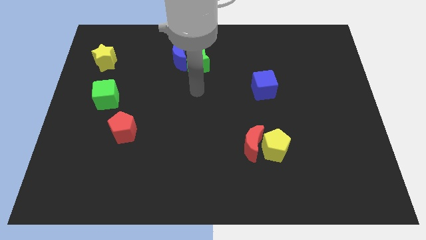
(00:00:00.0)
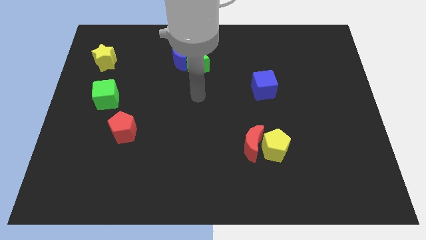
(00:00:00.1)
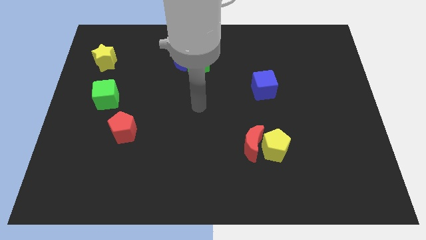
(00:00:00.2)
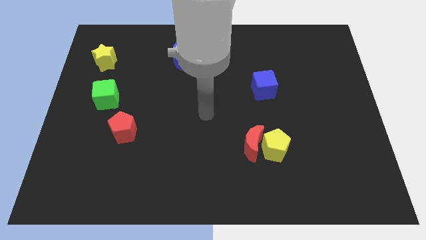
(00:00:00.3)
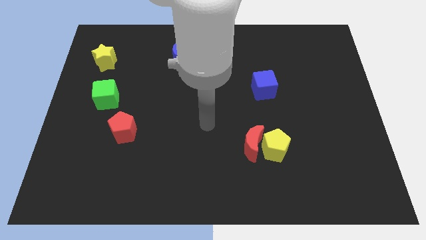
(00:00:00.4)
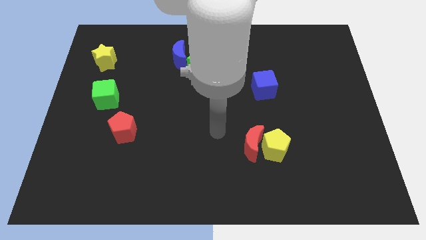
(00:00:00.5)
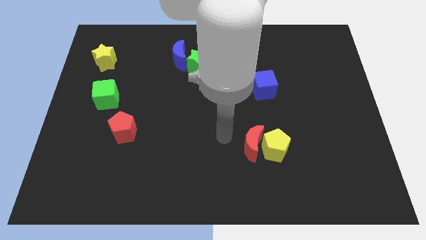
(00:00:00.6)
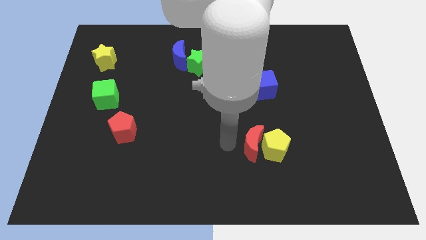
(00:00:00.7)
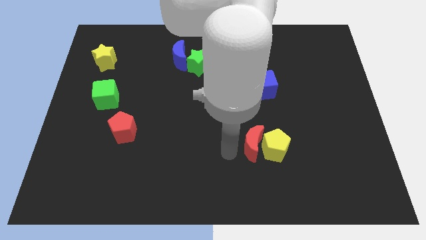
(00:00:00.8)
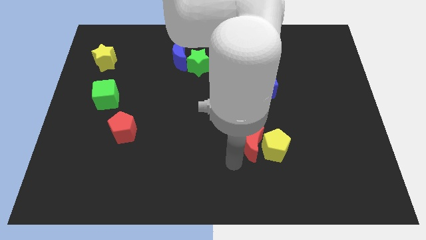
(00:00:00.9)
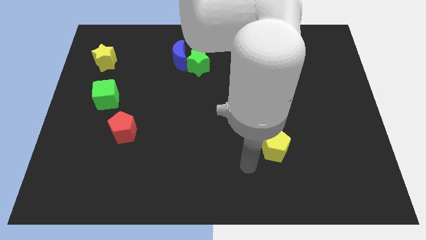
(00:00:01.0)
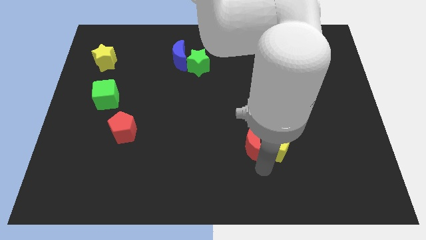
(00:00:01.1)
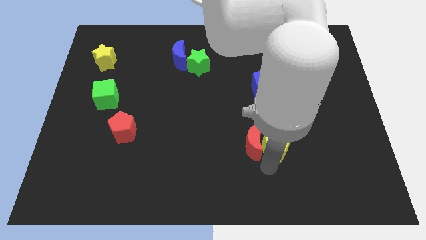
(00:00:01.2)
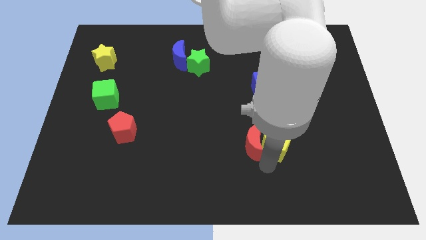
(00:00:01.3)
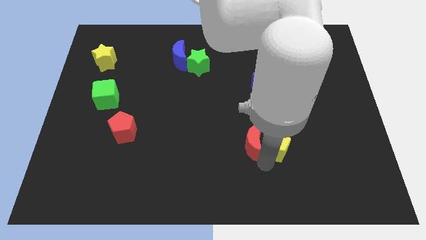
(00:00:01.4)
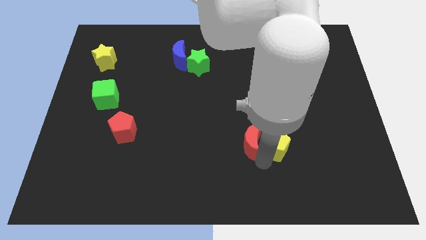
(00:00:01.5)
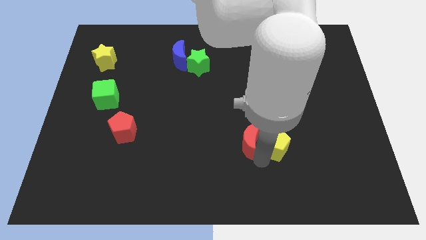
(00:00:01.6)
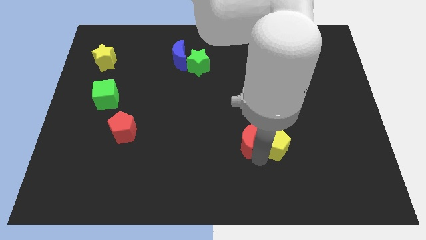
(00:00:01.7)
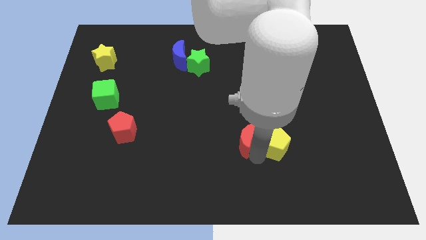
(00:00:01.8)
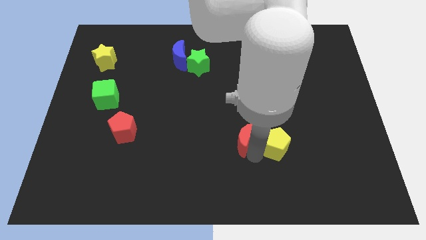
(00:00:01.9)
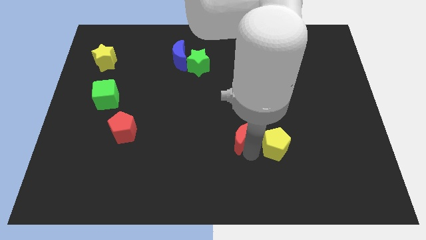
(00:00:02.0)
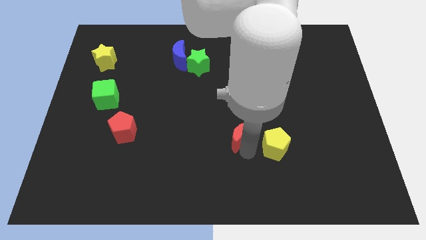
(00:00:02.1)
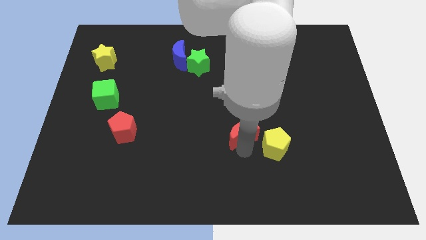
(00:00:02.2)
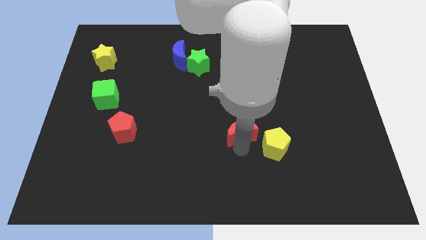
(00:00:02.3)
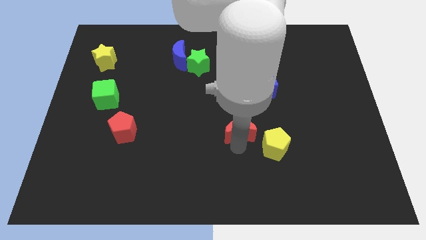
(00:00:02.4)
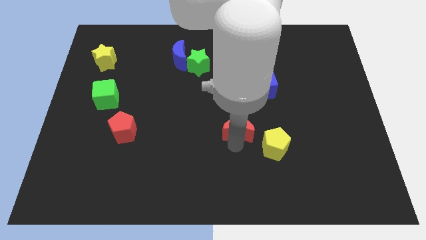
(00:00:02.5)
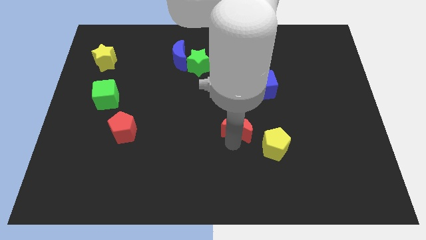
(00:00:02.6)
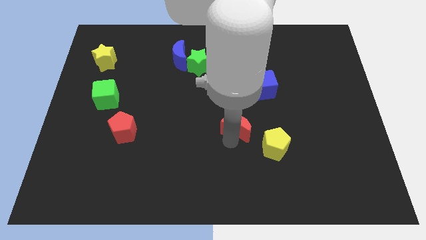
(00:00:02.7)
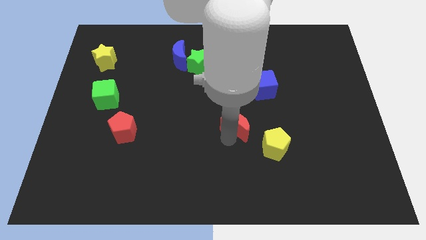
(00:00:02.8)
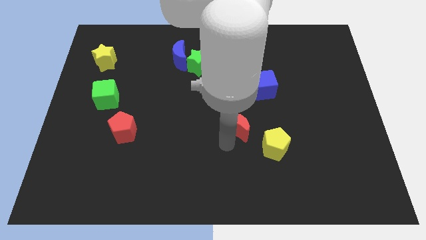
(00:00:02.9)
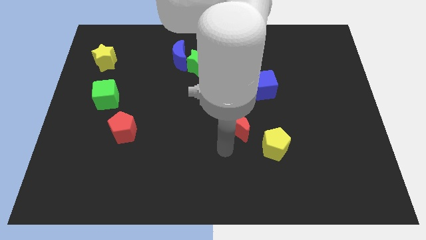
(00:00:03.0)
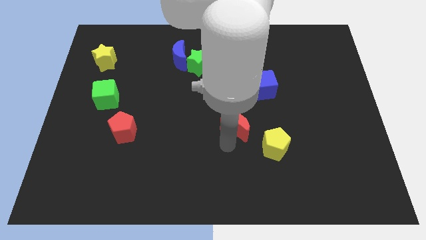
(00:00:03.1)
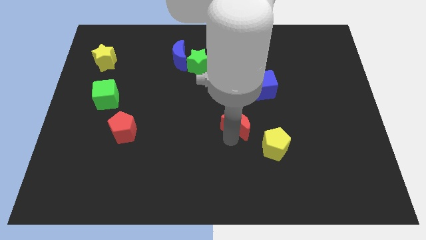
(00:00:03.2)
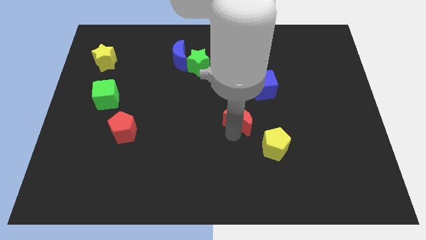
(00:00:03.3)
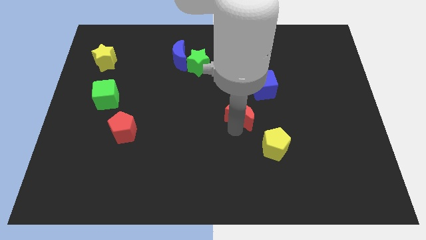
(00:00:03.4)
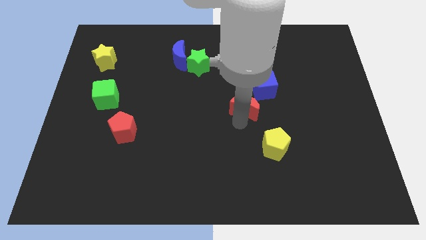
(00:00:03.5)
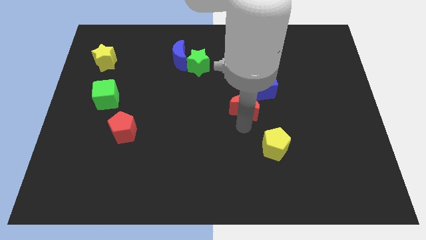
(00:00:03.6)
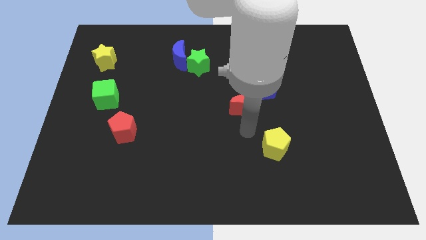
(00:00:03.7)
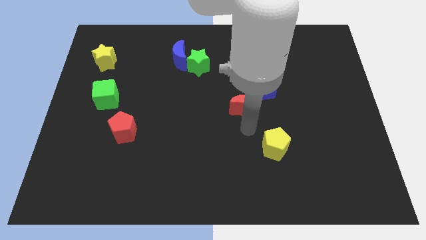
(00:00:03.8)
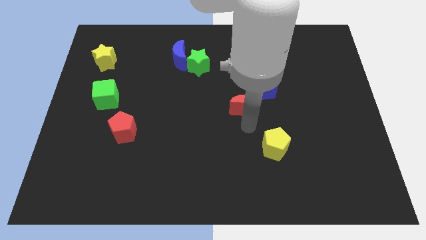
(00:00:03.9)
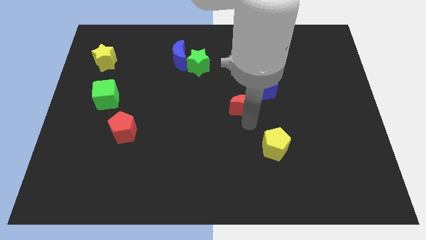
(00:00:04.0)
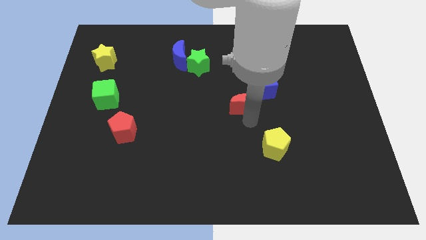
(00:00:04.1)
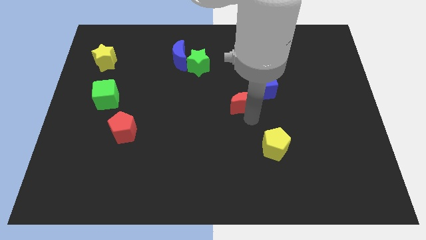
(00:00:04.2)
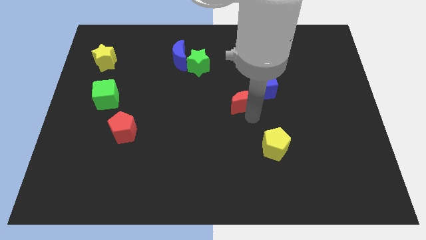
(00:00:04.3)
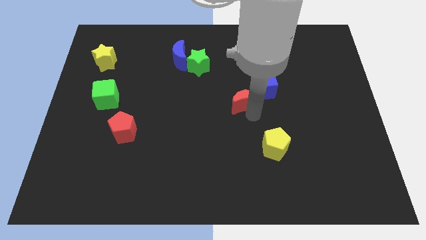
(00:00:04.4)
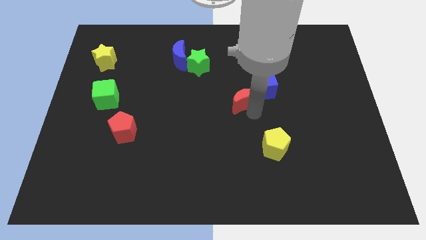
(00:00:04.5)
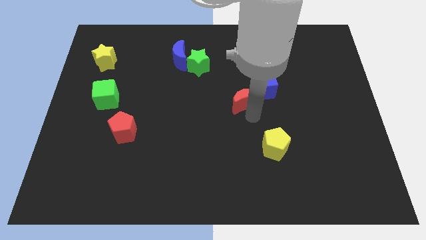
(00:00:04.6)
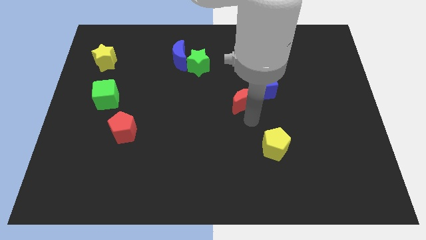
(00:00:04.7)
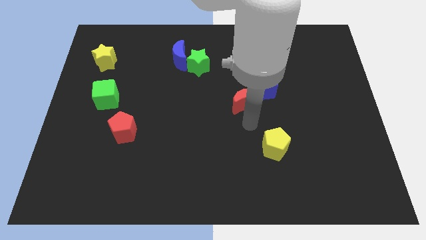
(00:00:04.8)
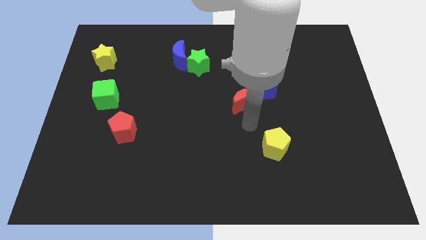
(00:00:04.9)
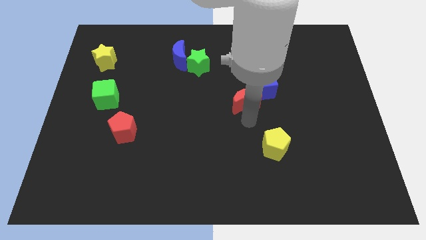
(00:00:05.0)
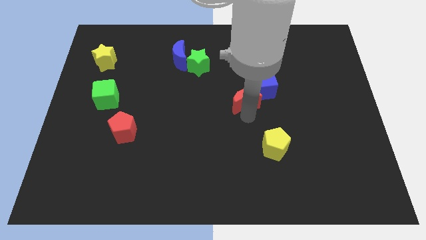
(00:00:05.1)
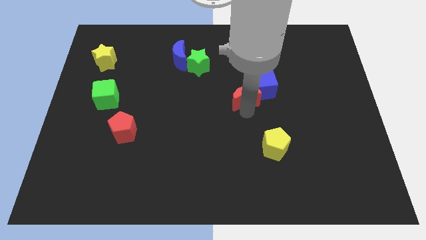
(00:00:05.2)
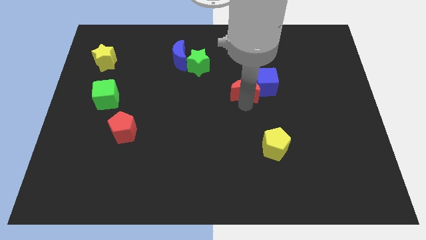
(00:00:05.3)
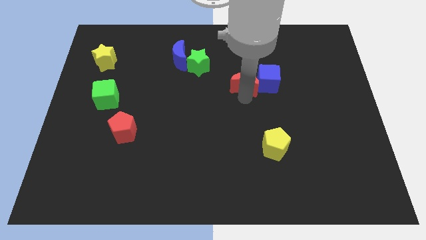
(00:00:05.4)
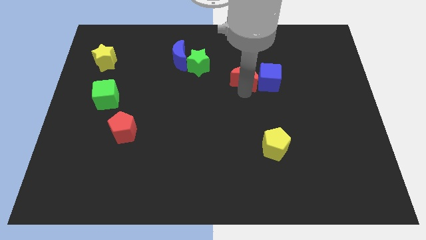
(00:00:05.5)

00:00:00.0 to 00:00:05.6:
put the red moon diagonally up and to the left of the blue cube

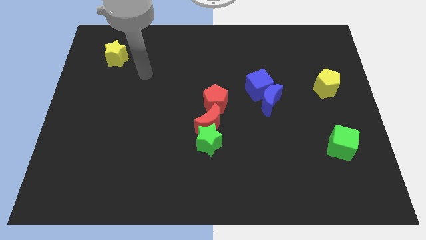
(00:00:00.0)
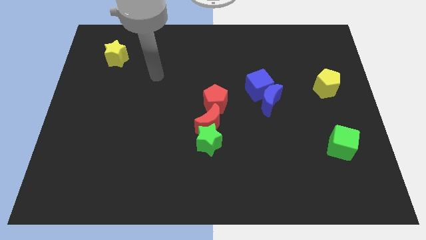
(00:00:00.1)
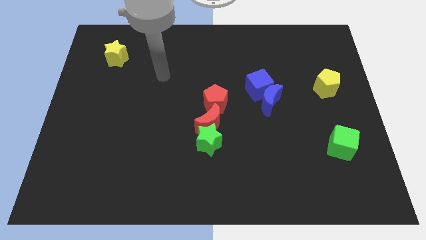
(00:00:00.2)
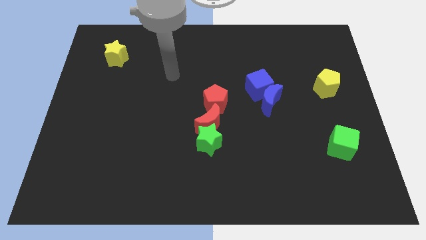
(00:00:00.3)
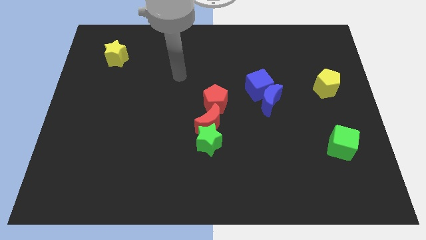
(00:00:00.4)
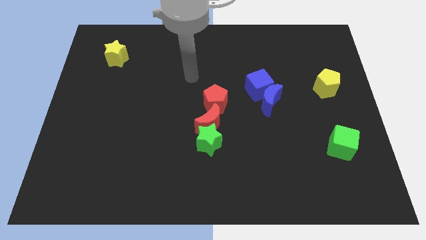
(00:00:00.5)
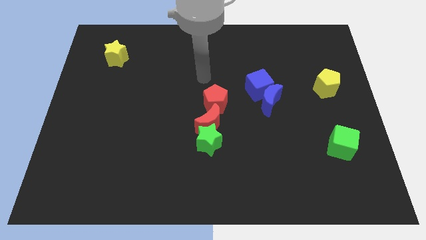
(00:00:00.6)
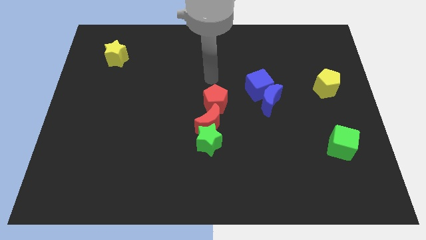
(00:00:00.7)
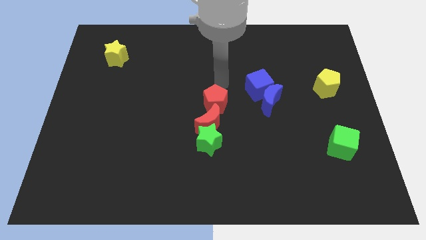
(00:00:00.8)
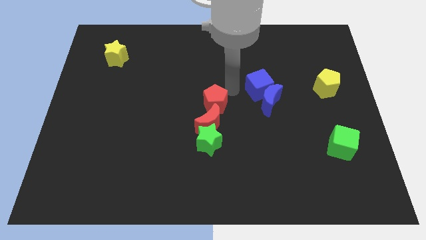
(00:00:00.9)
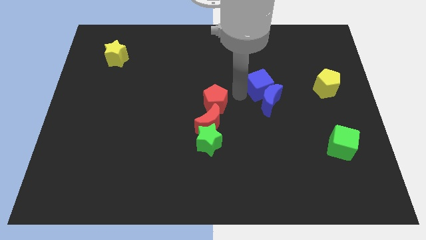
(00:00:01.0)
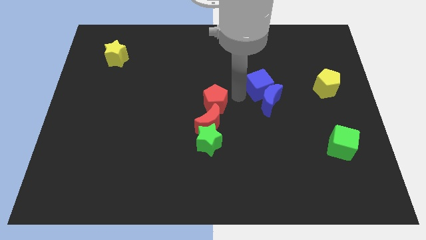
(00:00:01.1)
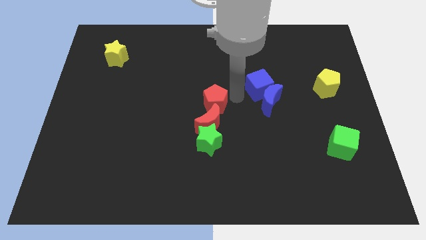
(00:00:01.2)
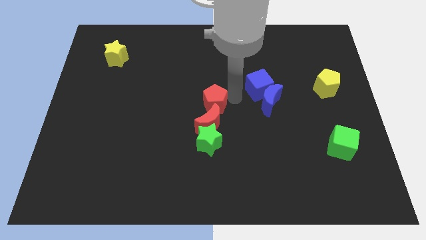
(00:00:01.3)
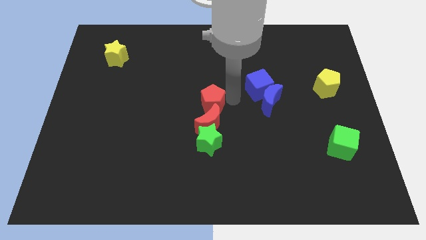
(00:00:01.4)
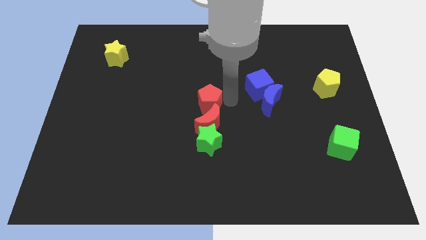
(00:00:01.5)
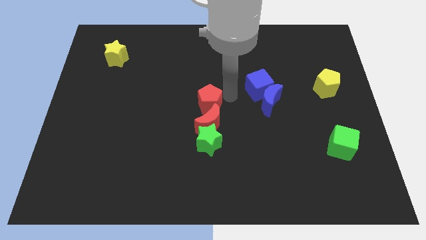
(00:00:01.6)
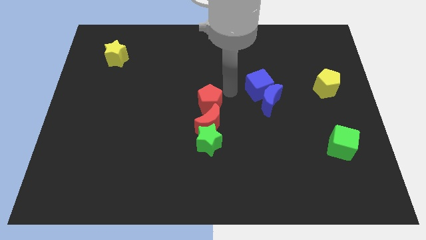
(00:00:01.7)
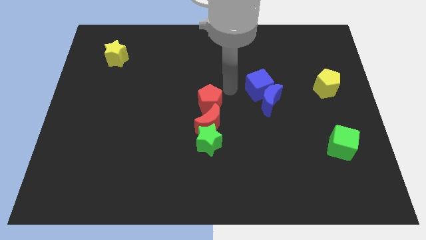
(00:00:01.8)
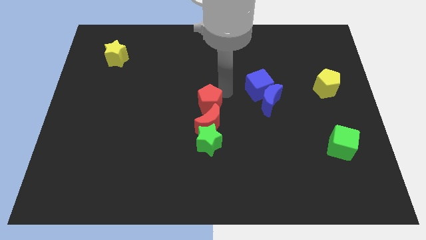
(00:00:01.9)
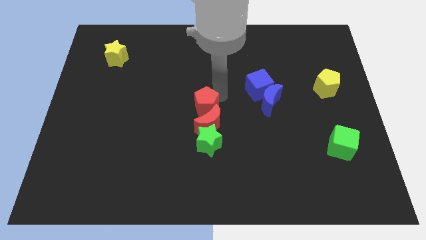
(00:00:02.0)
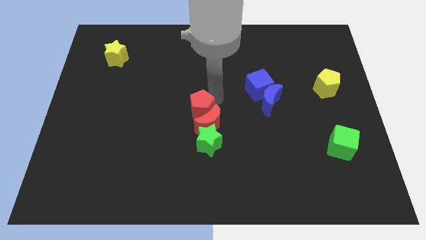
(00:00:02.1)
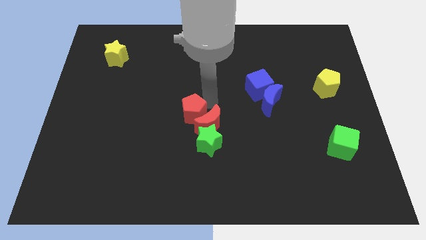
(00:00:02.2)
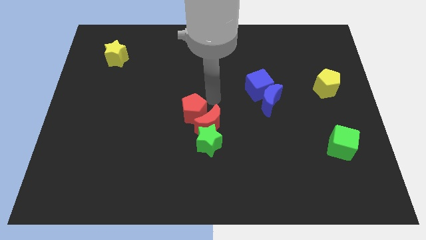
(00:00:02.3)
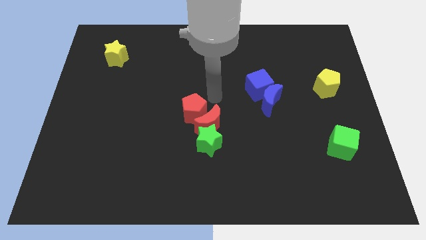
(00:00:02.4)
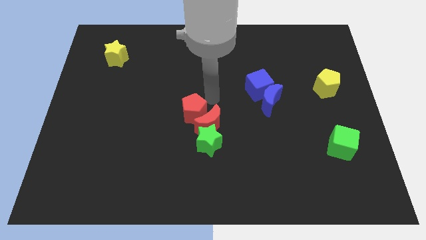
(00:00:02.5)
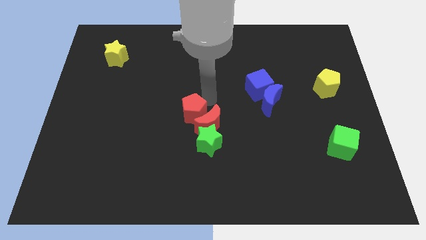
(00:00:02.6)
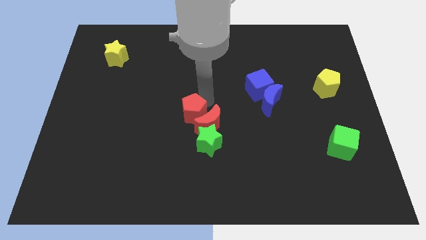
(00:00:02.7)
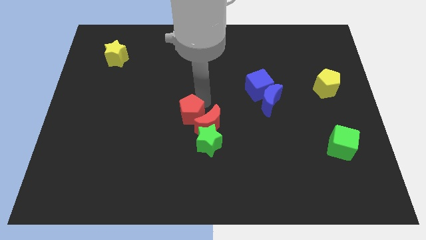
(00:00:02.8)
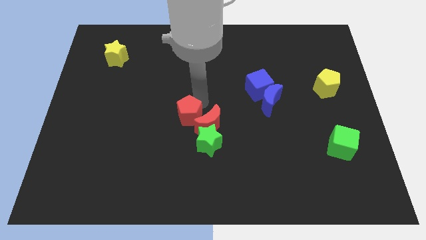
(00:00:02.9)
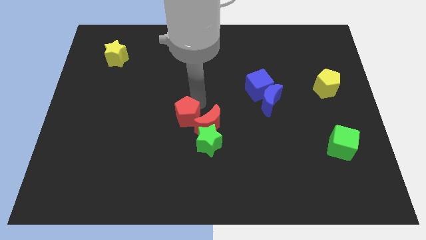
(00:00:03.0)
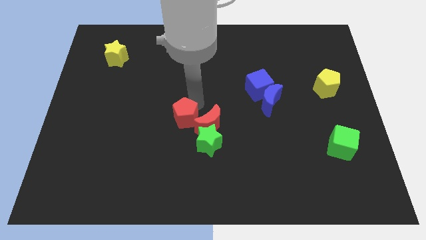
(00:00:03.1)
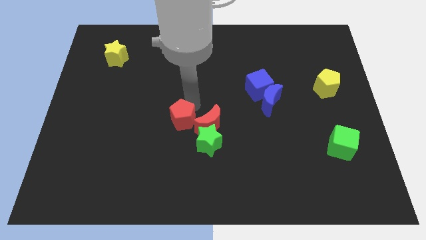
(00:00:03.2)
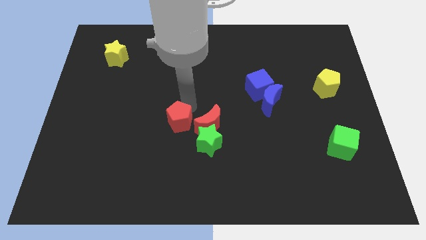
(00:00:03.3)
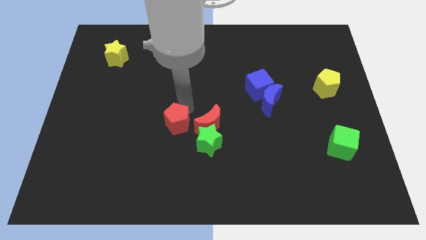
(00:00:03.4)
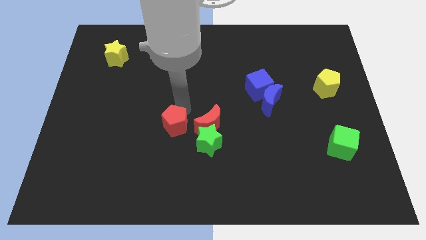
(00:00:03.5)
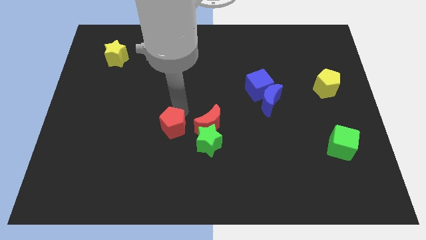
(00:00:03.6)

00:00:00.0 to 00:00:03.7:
move the red pentagon just left of the green star
